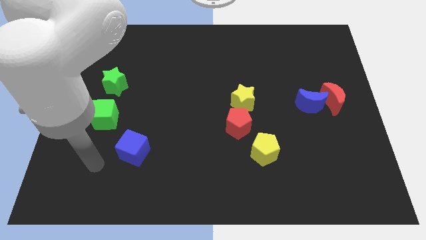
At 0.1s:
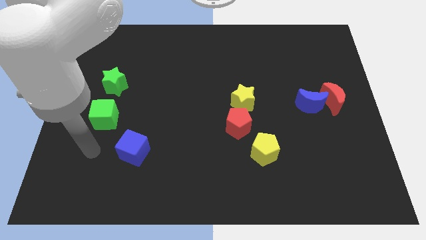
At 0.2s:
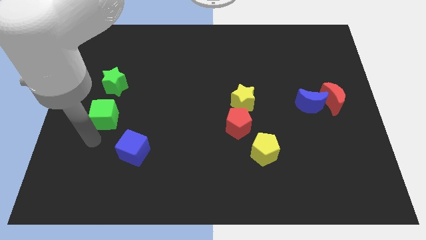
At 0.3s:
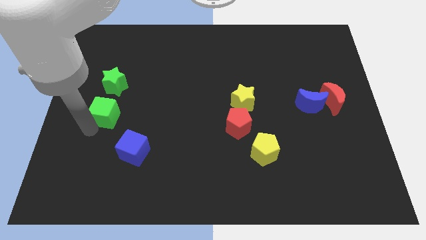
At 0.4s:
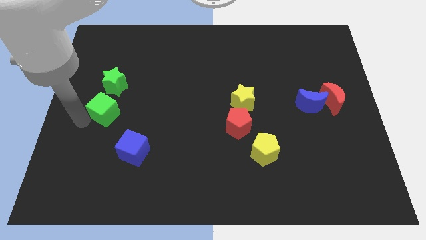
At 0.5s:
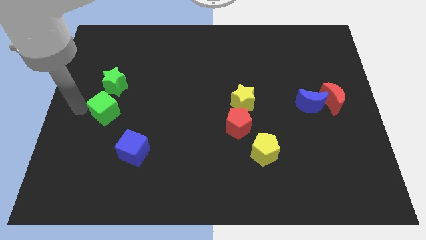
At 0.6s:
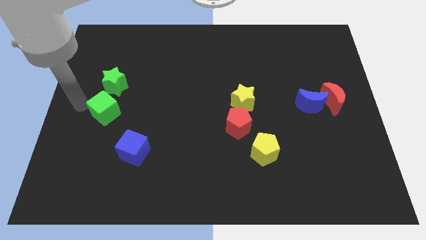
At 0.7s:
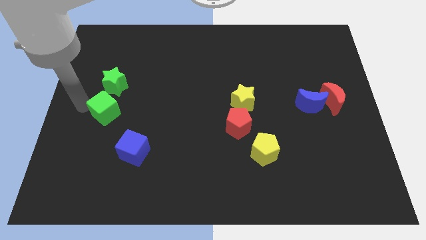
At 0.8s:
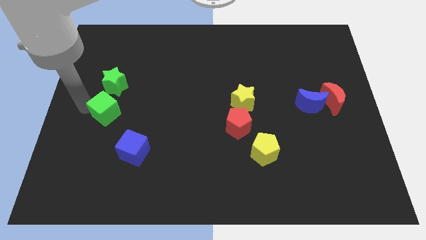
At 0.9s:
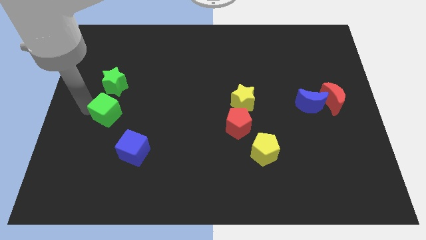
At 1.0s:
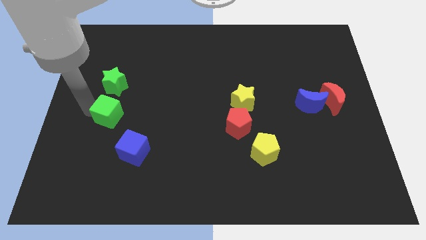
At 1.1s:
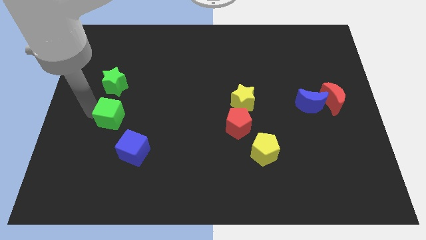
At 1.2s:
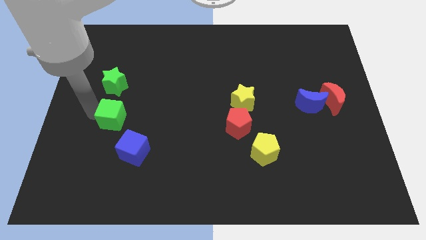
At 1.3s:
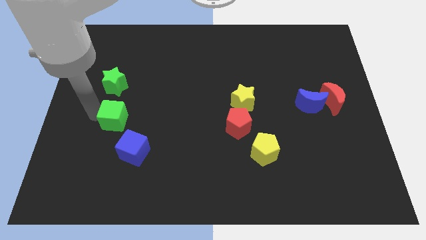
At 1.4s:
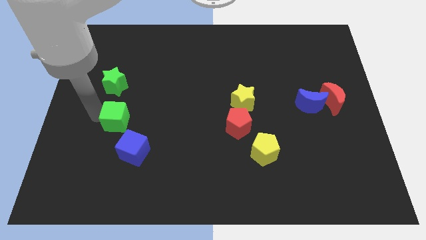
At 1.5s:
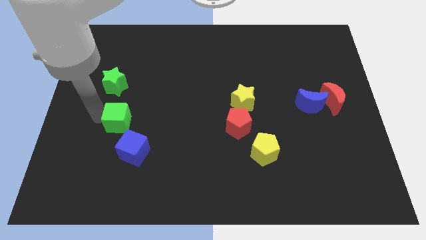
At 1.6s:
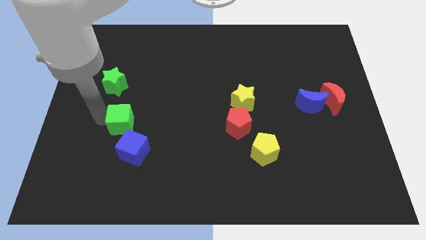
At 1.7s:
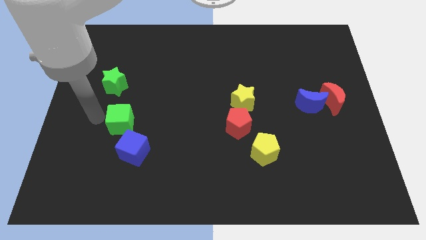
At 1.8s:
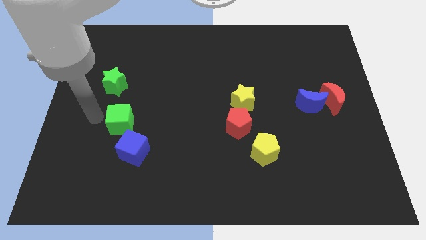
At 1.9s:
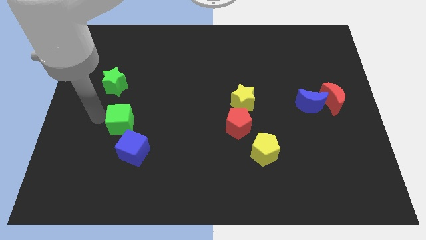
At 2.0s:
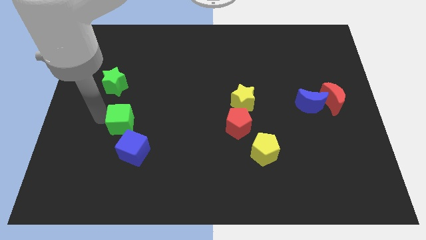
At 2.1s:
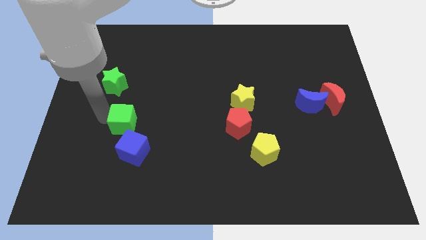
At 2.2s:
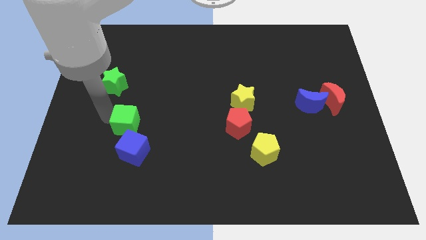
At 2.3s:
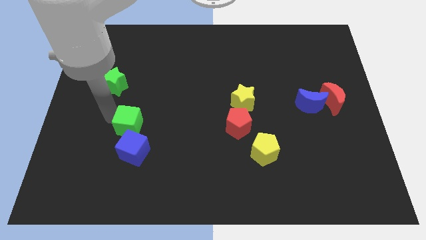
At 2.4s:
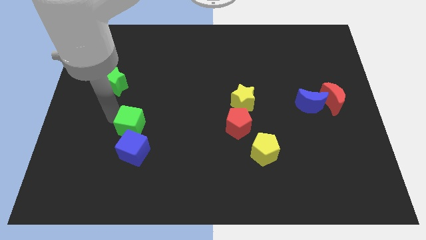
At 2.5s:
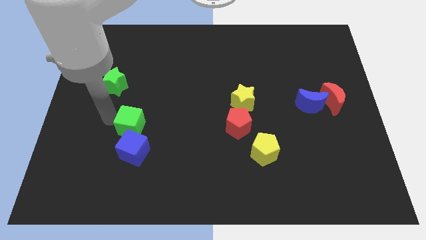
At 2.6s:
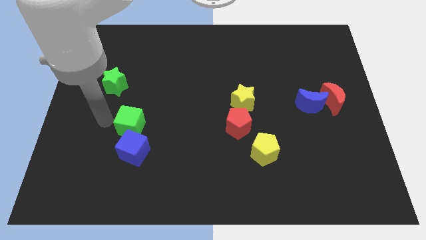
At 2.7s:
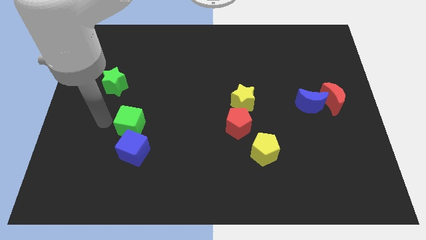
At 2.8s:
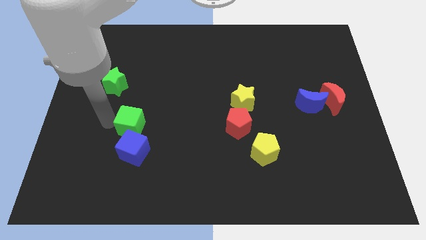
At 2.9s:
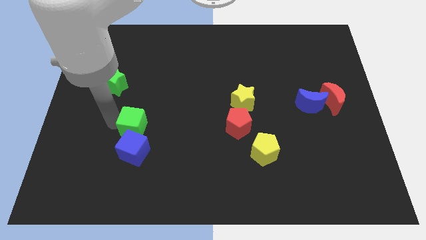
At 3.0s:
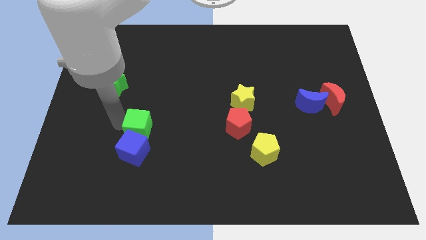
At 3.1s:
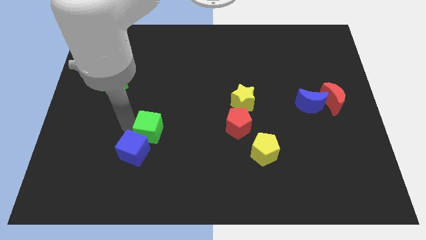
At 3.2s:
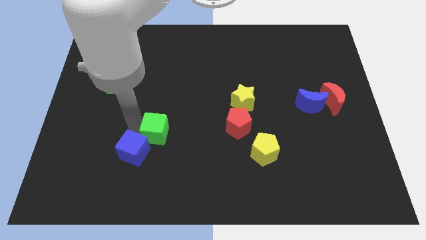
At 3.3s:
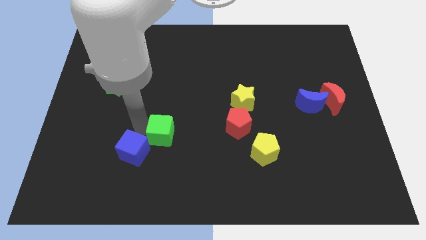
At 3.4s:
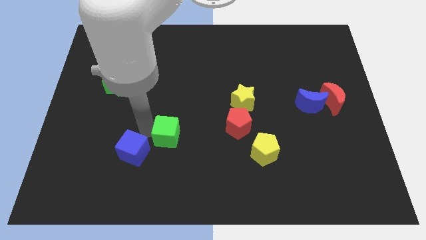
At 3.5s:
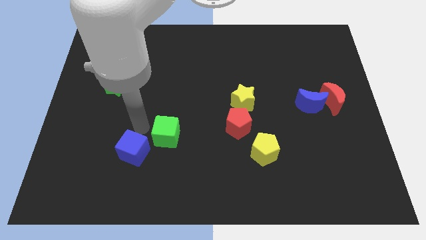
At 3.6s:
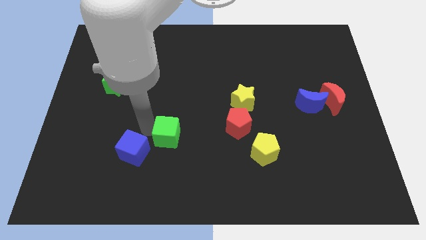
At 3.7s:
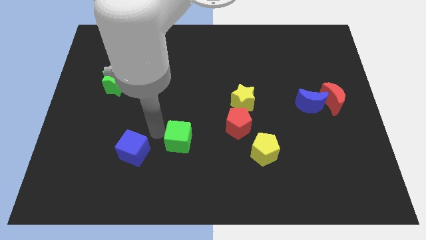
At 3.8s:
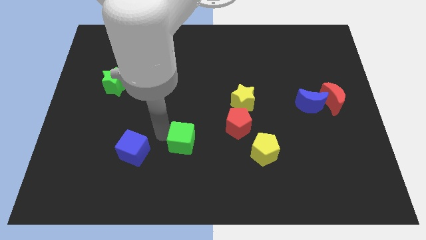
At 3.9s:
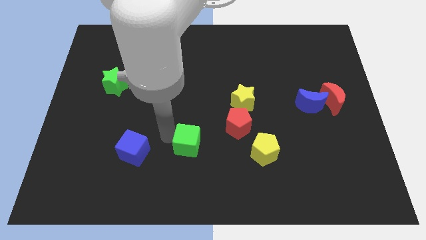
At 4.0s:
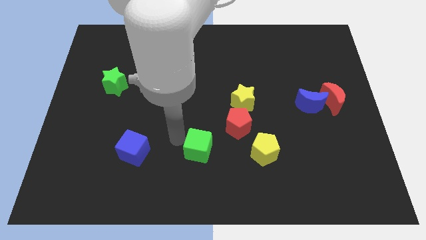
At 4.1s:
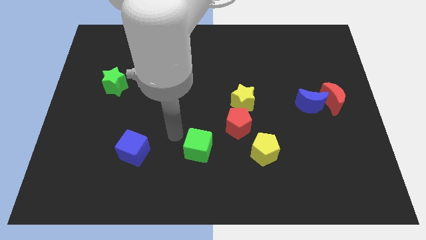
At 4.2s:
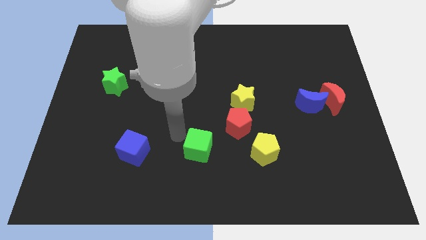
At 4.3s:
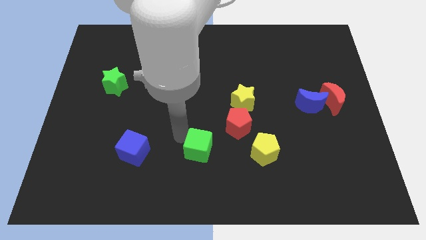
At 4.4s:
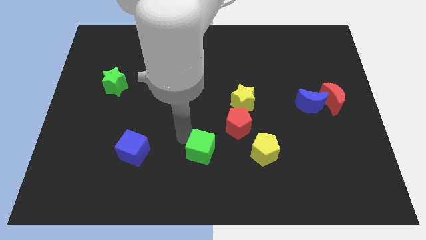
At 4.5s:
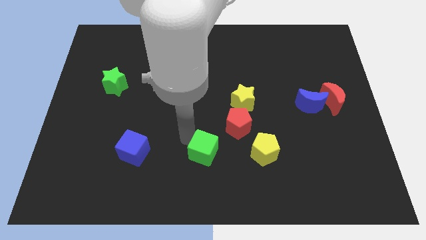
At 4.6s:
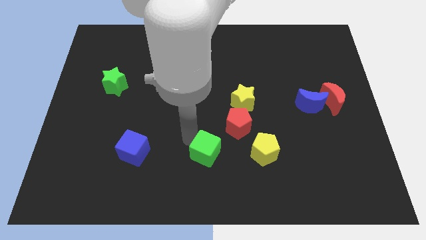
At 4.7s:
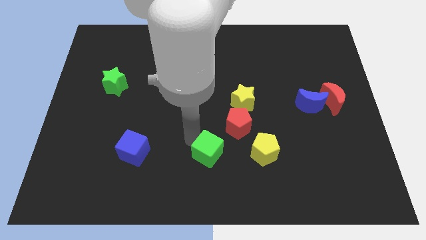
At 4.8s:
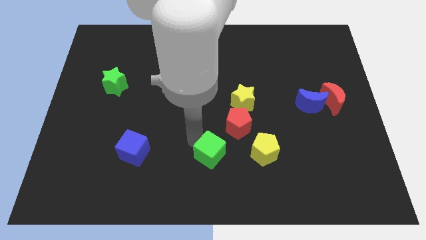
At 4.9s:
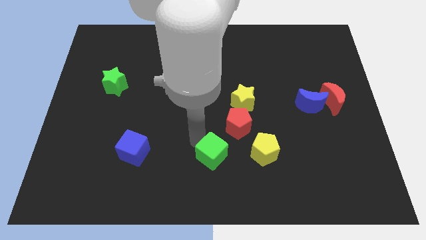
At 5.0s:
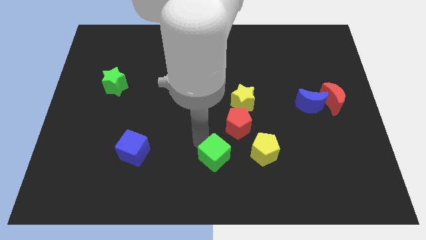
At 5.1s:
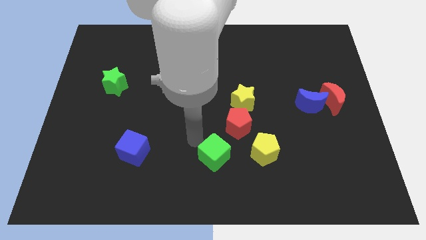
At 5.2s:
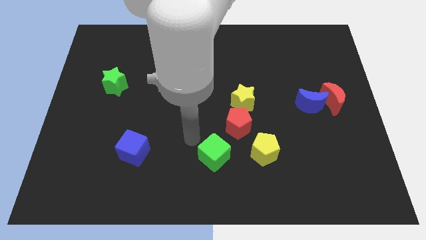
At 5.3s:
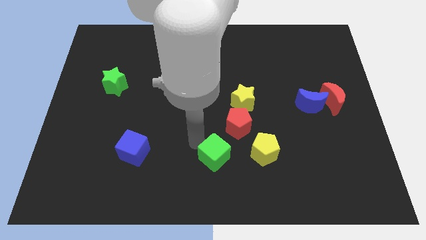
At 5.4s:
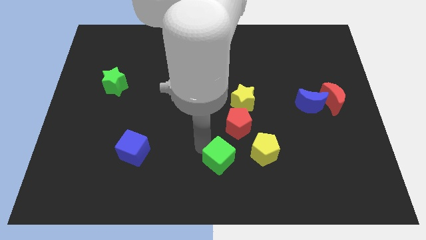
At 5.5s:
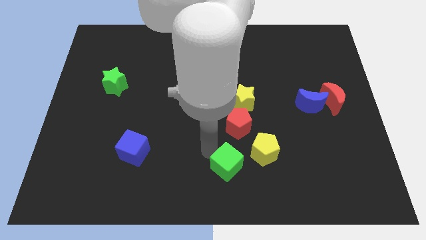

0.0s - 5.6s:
move the green cube to the bottom left of the yellow pentagon

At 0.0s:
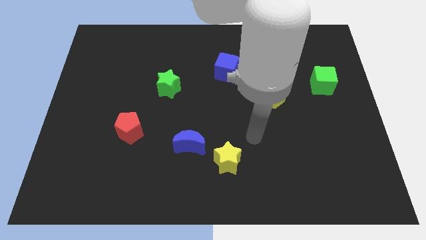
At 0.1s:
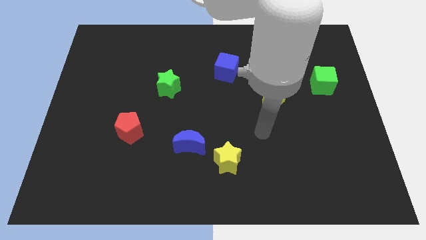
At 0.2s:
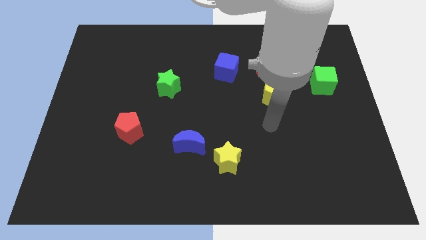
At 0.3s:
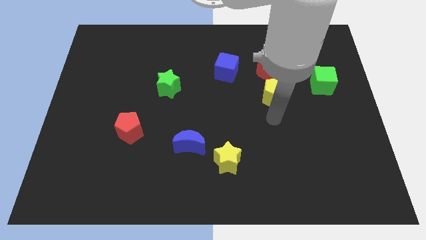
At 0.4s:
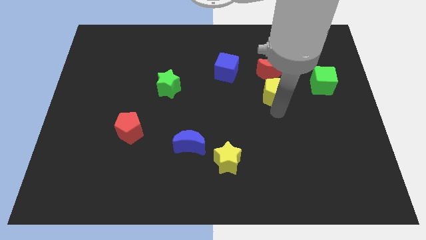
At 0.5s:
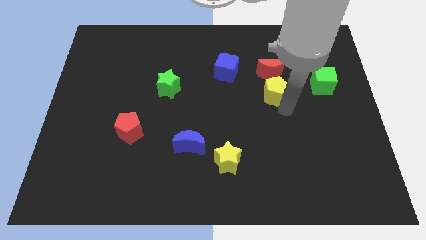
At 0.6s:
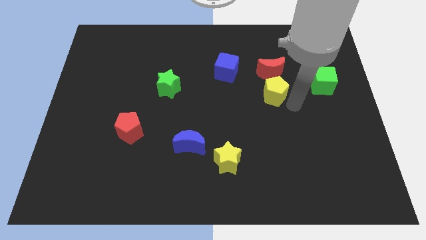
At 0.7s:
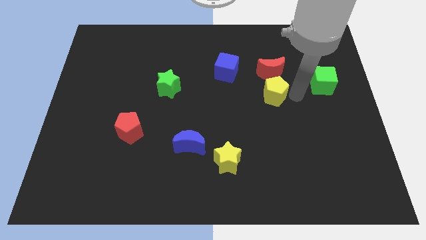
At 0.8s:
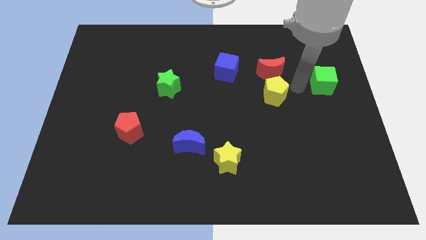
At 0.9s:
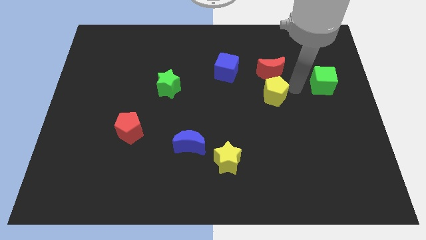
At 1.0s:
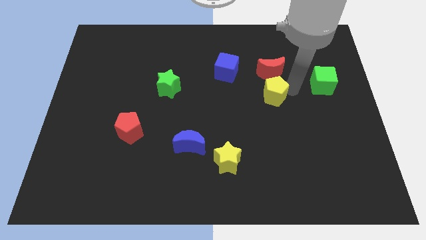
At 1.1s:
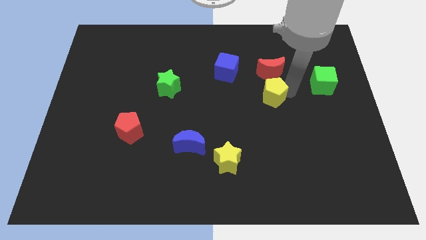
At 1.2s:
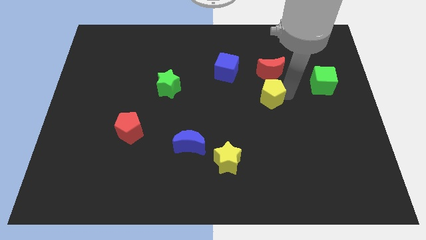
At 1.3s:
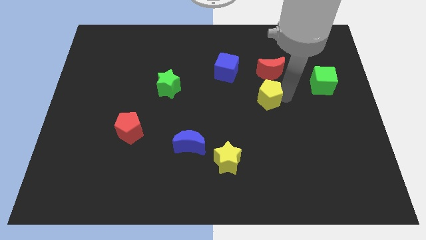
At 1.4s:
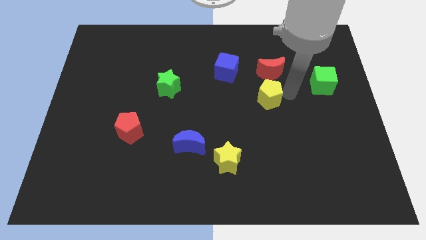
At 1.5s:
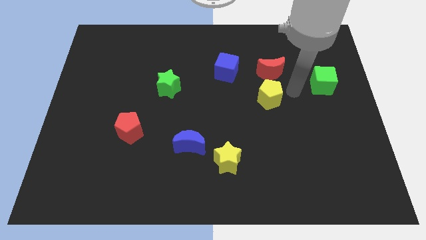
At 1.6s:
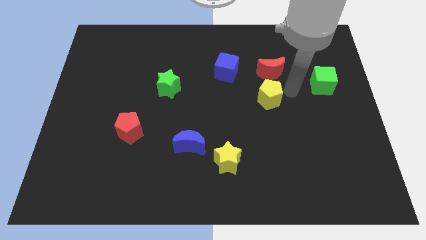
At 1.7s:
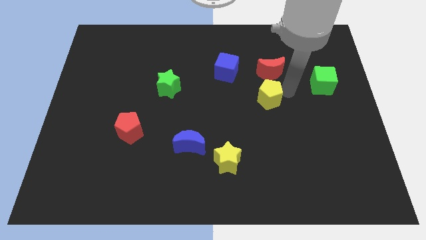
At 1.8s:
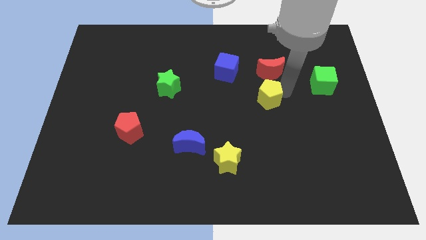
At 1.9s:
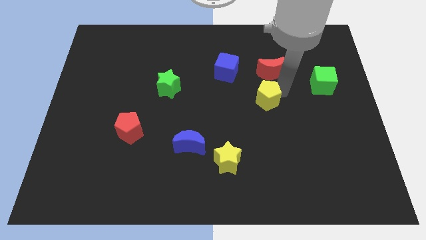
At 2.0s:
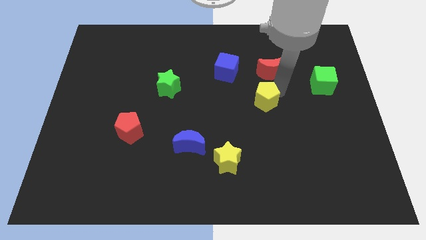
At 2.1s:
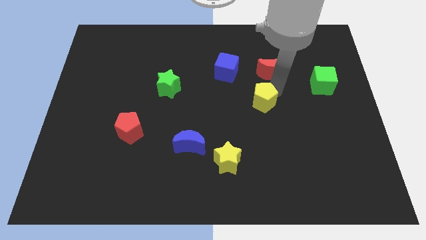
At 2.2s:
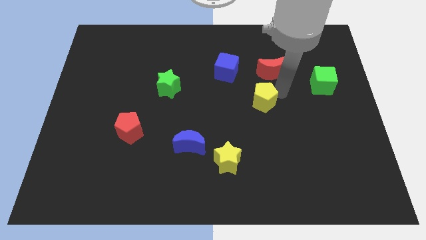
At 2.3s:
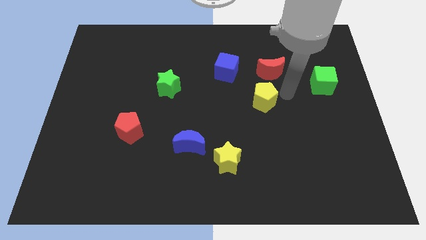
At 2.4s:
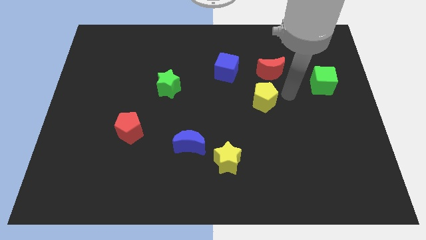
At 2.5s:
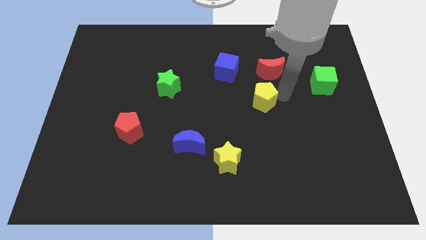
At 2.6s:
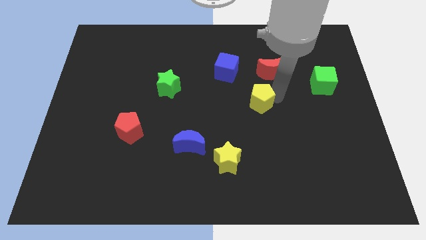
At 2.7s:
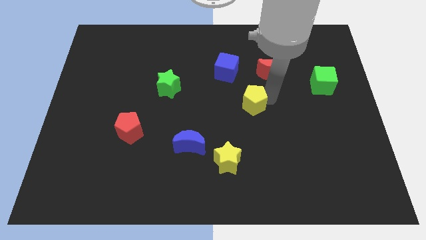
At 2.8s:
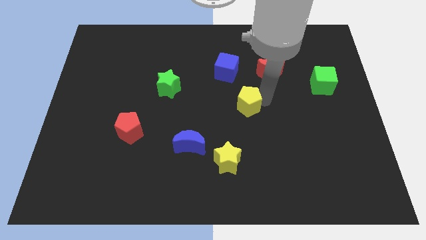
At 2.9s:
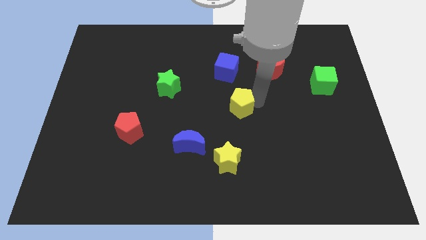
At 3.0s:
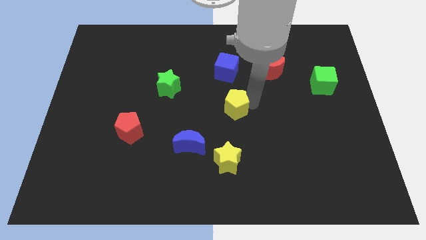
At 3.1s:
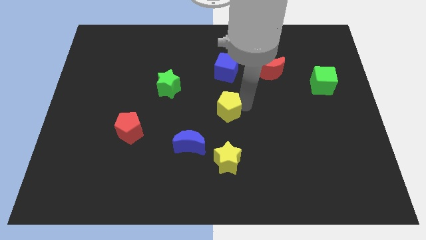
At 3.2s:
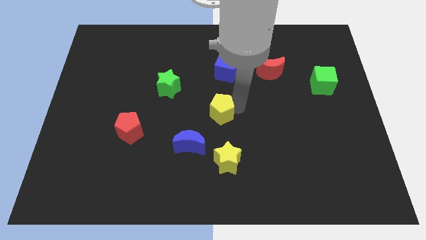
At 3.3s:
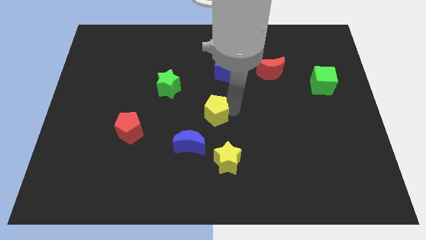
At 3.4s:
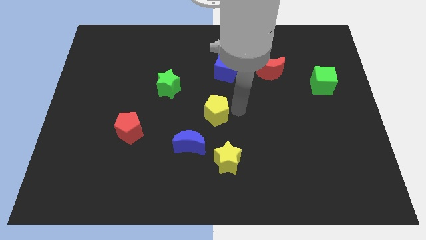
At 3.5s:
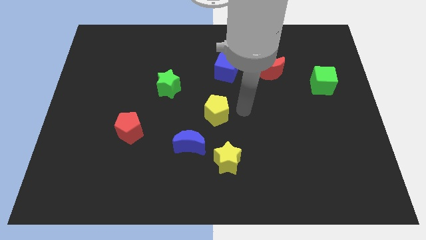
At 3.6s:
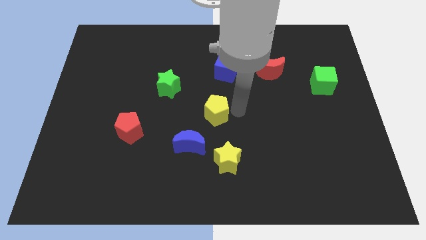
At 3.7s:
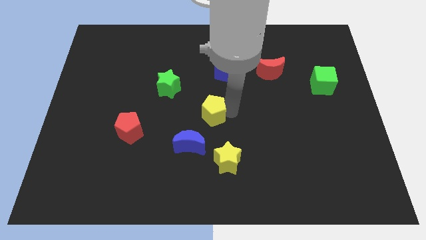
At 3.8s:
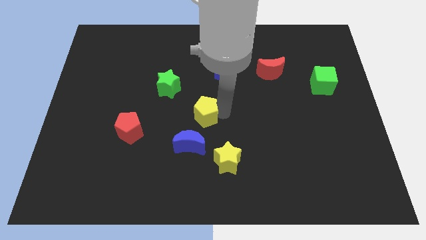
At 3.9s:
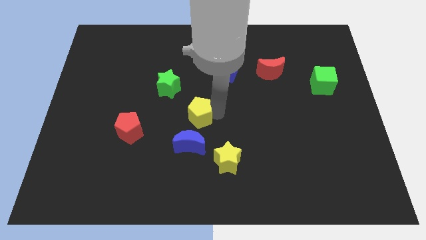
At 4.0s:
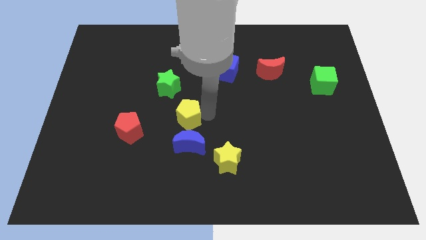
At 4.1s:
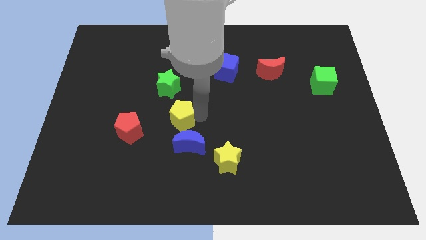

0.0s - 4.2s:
put the yellow pentagon to the bottom of the green star
